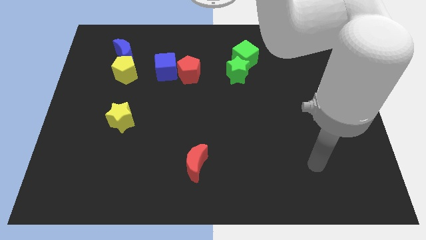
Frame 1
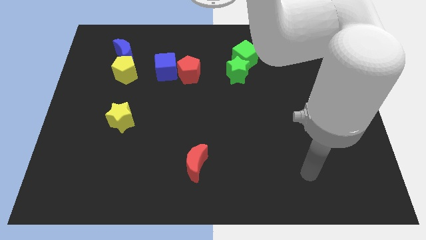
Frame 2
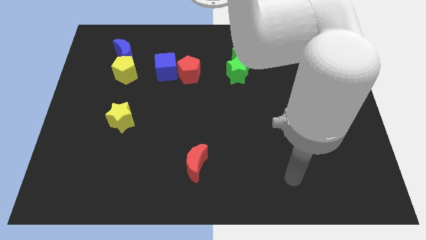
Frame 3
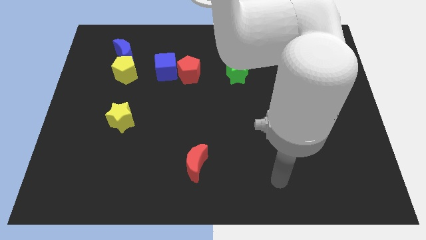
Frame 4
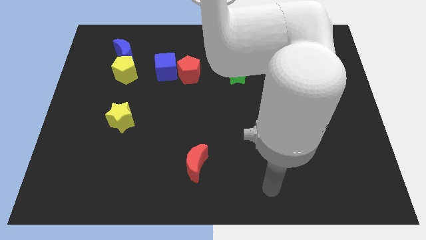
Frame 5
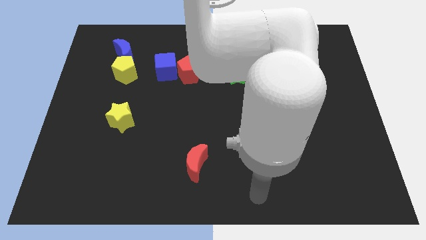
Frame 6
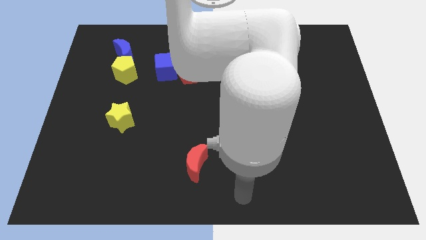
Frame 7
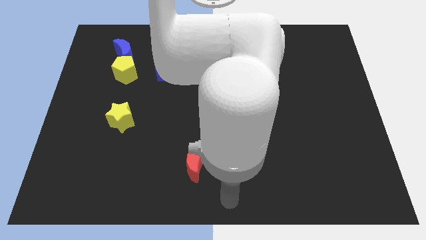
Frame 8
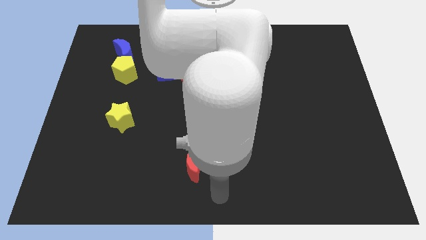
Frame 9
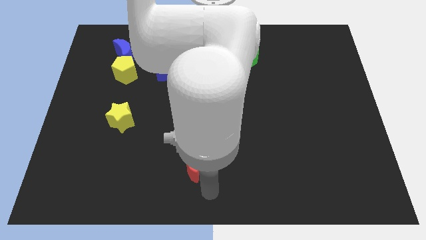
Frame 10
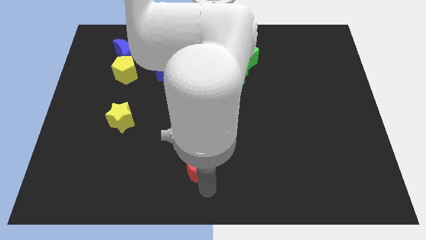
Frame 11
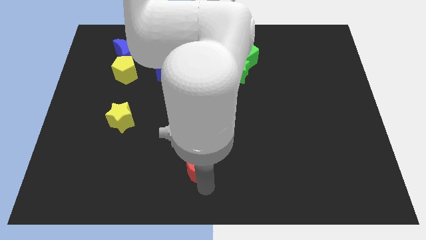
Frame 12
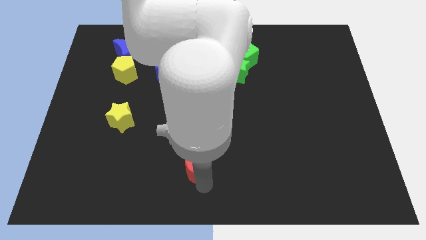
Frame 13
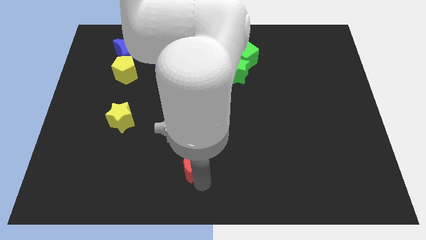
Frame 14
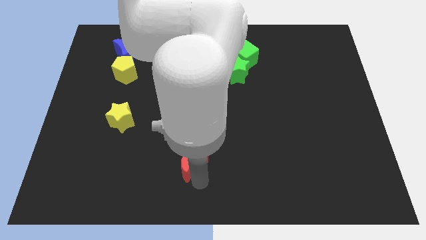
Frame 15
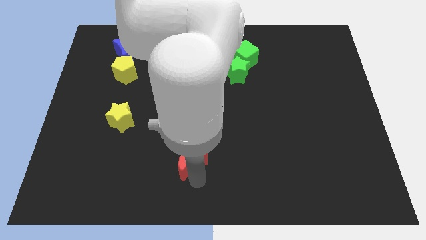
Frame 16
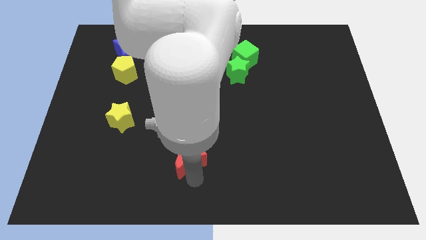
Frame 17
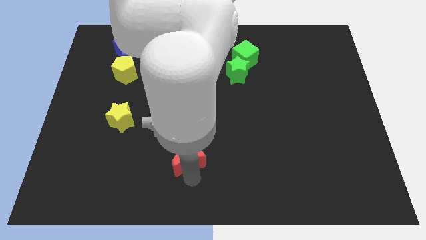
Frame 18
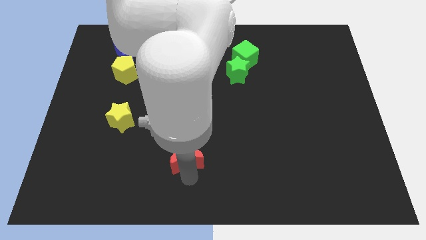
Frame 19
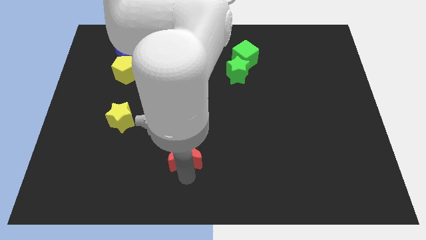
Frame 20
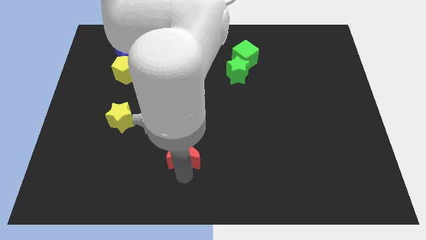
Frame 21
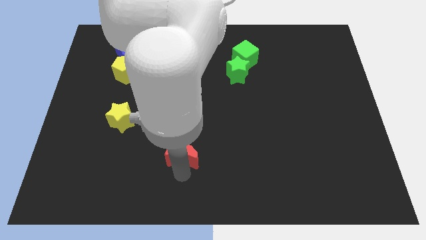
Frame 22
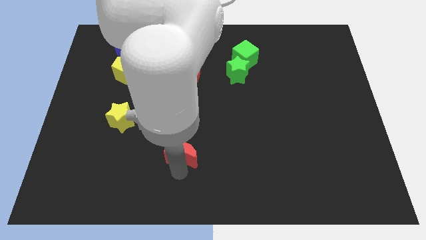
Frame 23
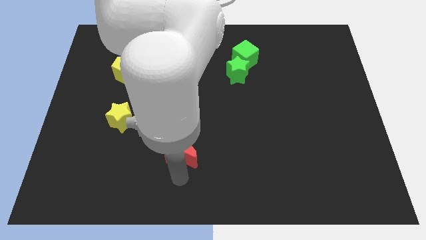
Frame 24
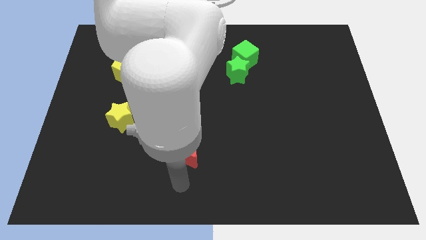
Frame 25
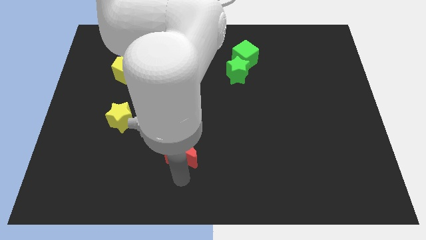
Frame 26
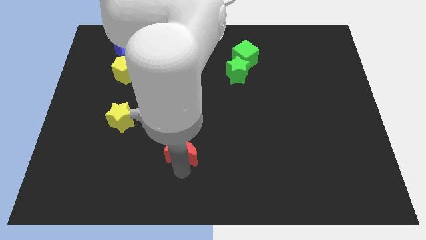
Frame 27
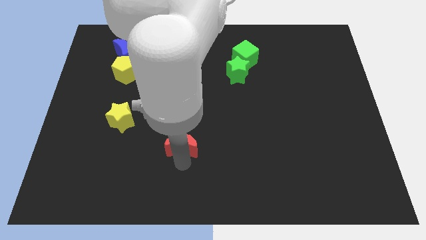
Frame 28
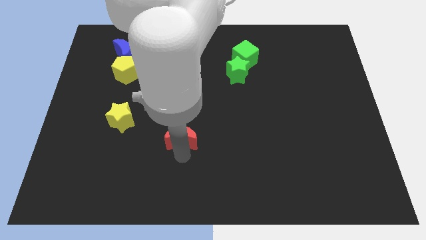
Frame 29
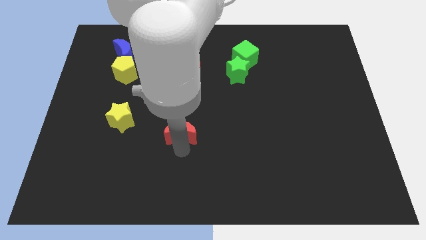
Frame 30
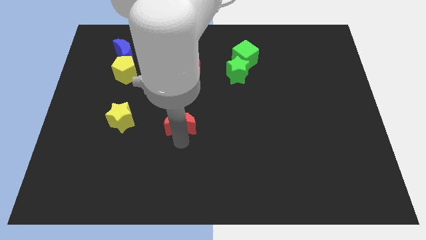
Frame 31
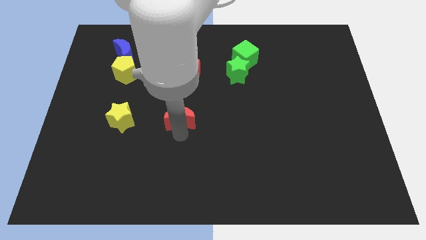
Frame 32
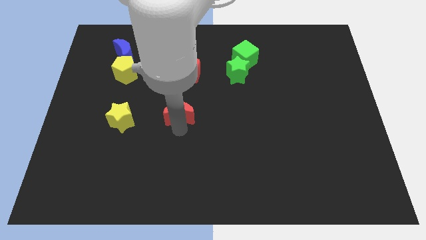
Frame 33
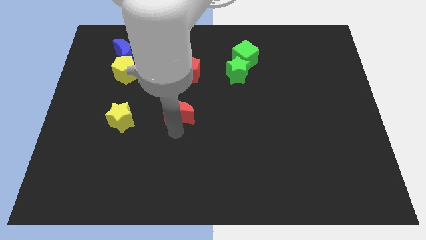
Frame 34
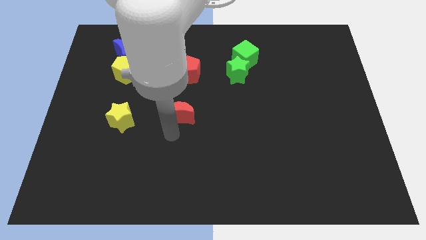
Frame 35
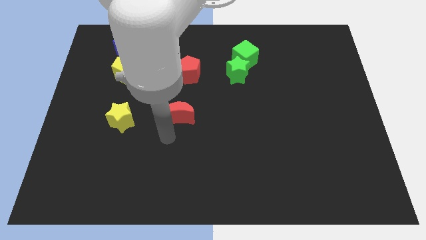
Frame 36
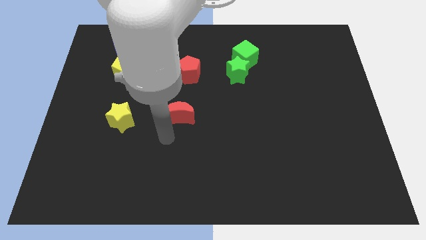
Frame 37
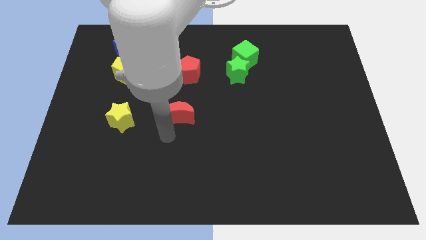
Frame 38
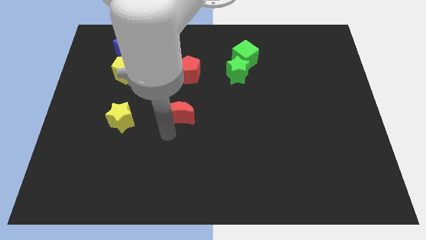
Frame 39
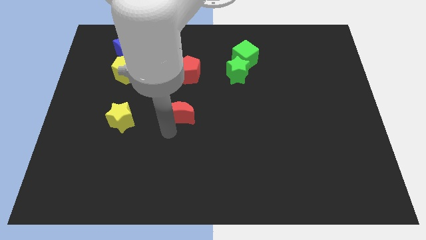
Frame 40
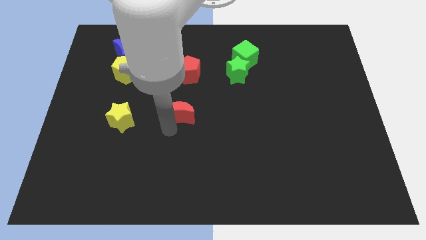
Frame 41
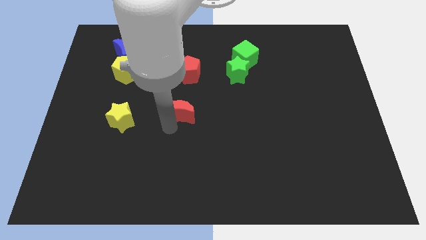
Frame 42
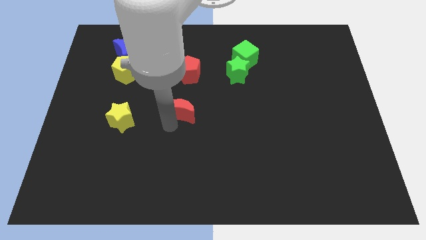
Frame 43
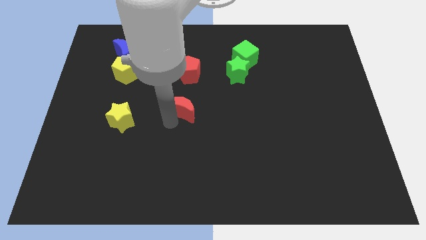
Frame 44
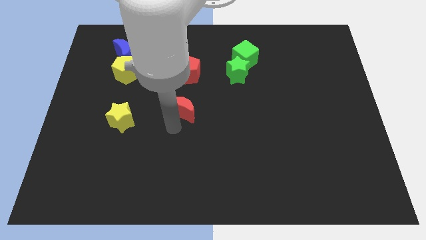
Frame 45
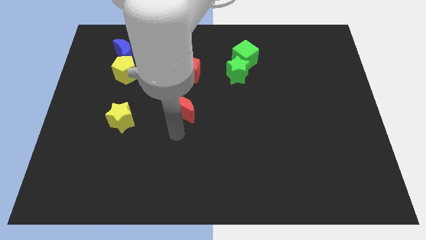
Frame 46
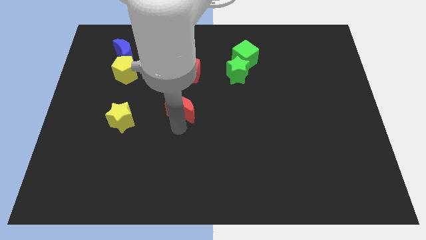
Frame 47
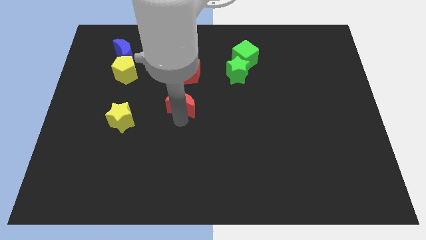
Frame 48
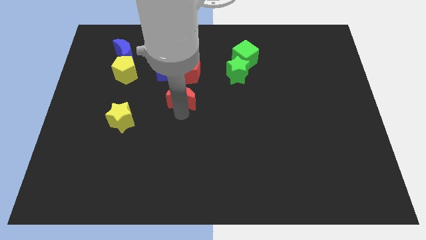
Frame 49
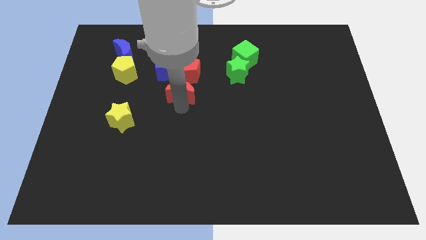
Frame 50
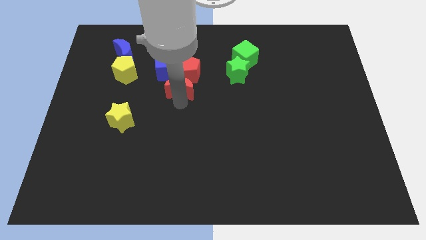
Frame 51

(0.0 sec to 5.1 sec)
put the red moon to the red pentagon

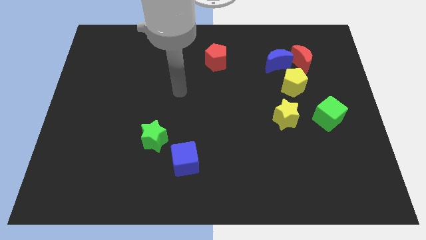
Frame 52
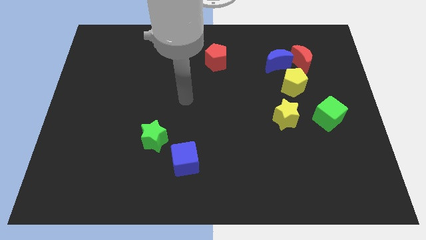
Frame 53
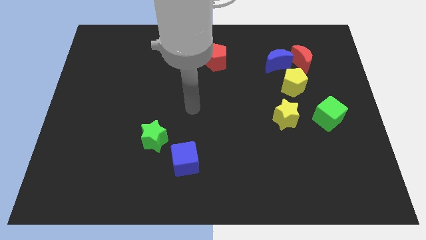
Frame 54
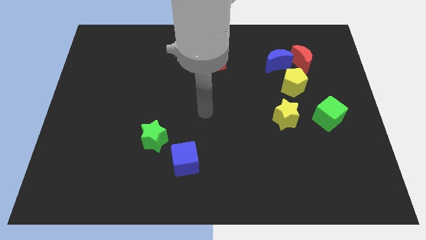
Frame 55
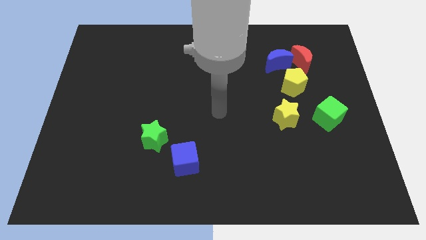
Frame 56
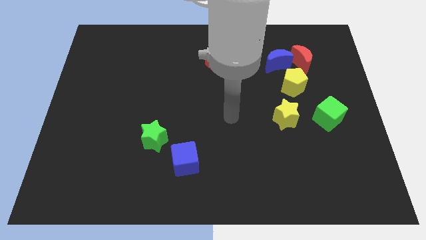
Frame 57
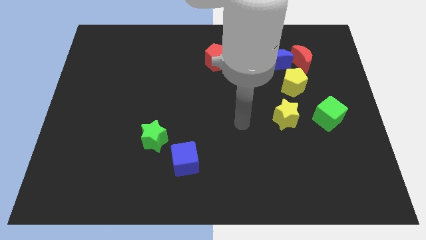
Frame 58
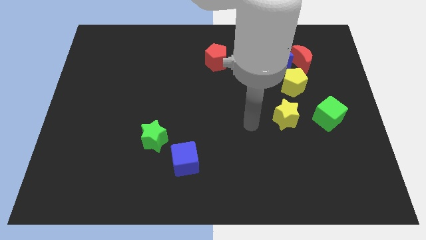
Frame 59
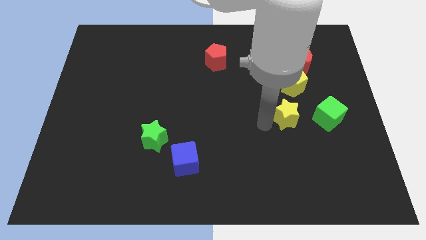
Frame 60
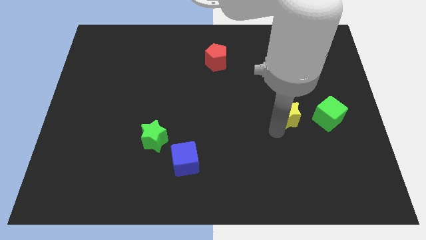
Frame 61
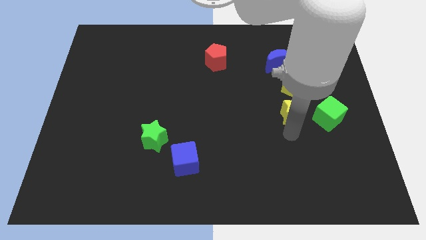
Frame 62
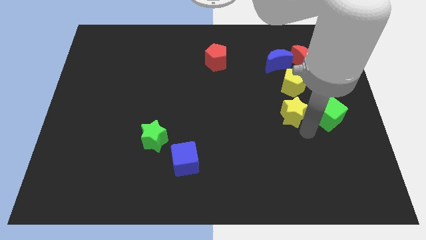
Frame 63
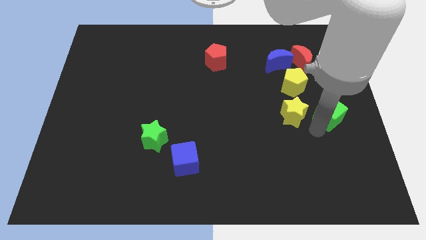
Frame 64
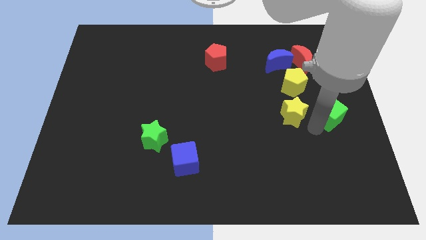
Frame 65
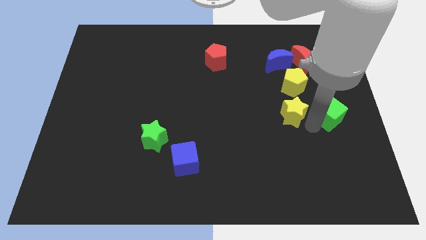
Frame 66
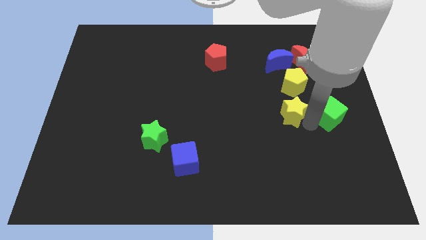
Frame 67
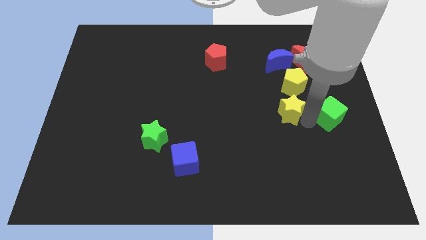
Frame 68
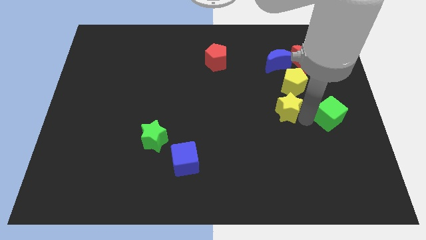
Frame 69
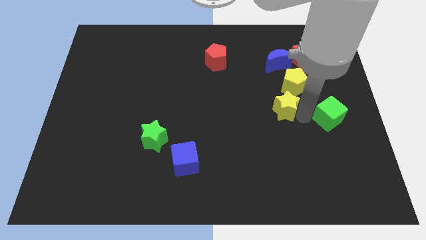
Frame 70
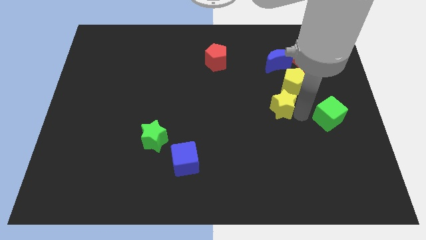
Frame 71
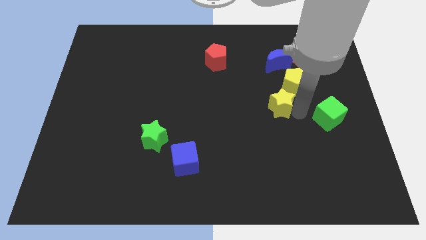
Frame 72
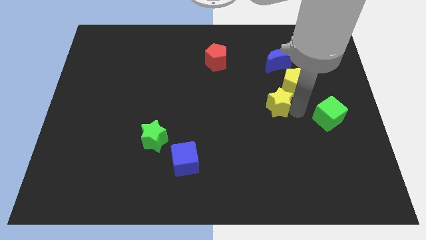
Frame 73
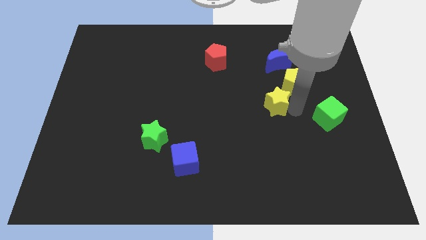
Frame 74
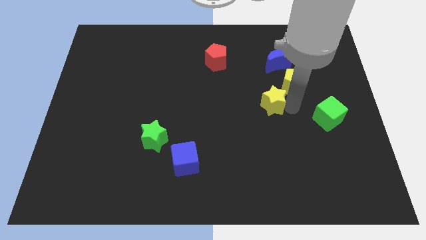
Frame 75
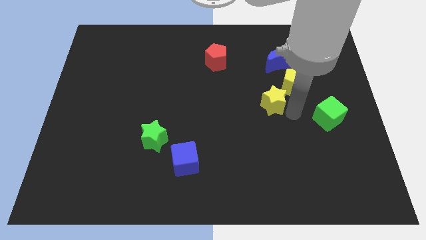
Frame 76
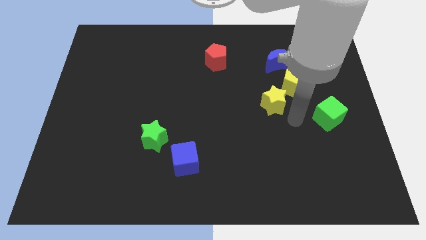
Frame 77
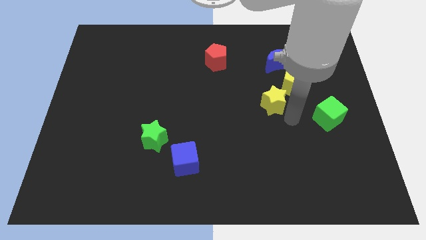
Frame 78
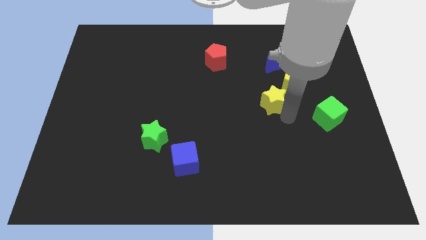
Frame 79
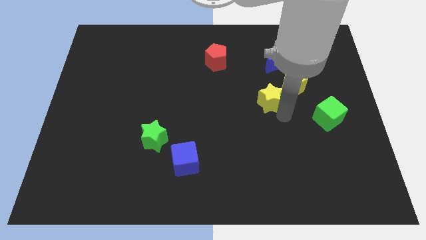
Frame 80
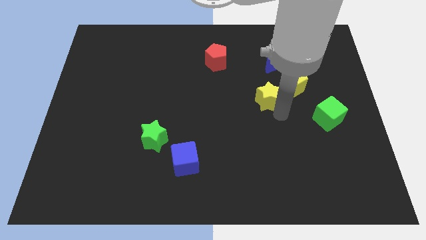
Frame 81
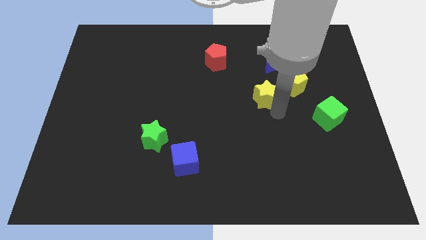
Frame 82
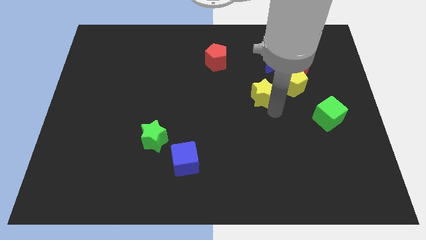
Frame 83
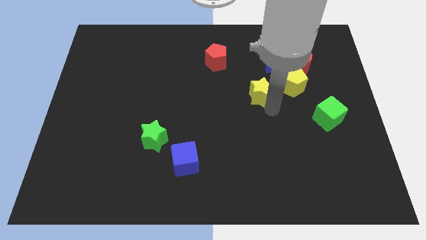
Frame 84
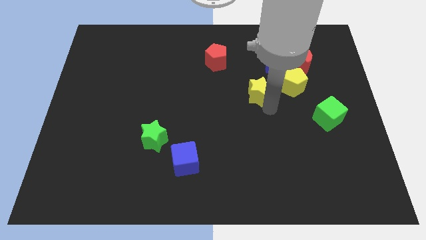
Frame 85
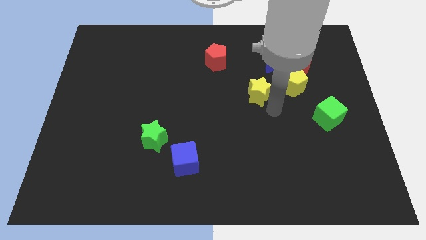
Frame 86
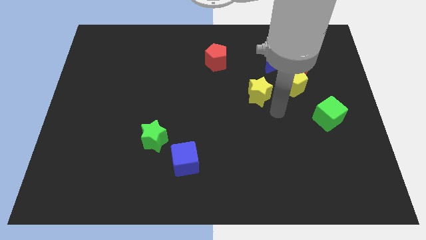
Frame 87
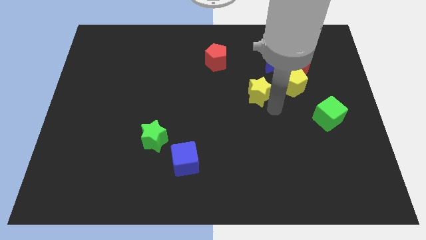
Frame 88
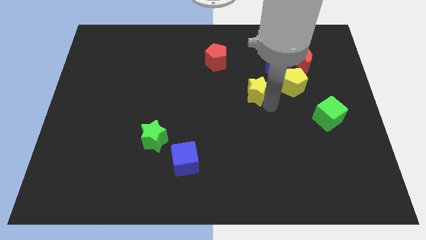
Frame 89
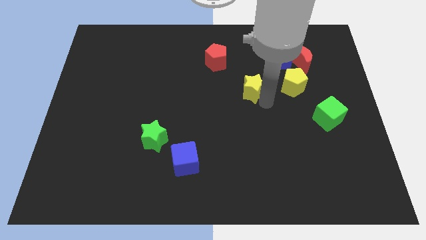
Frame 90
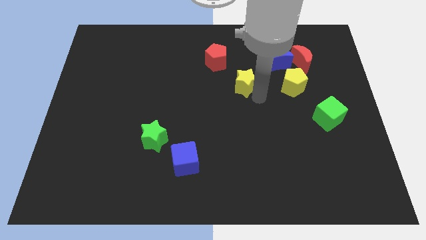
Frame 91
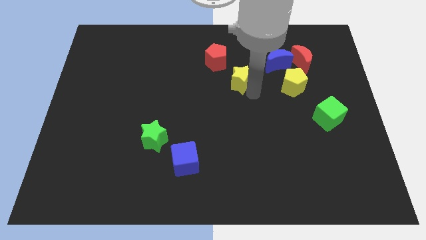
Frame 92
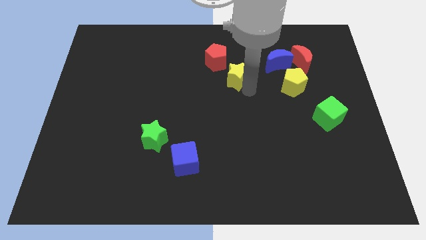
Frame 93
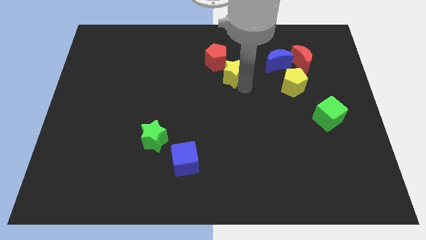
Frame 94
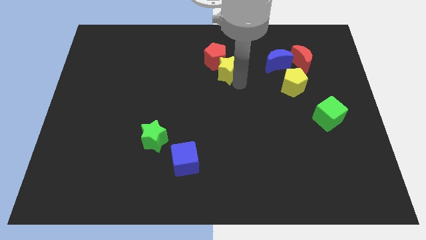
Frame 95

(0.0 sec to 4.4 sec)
push the yellow star close to the red pentagon
